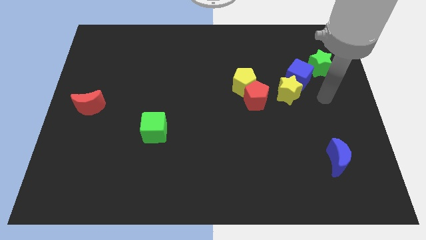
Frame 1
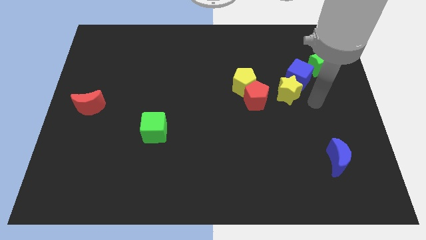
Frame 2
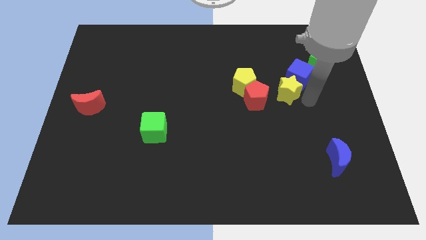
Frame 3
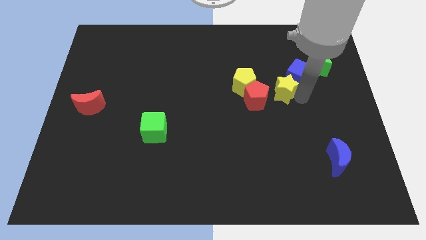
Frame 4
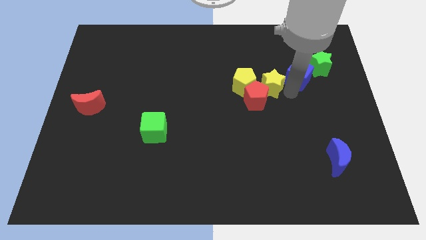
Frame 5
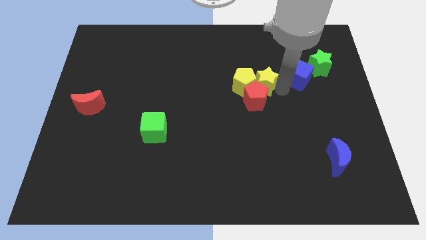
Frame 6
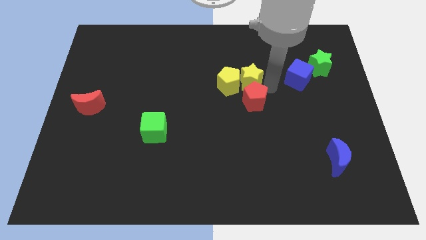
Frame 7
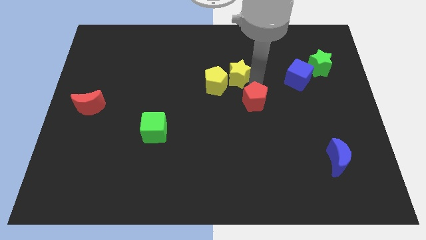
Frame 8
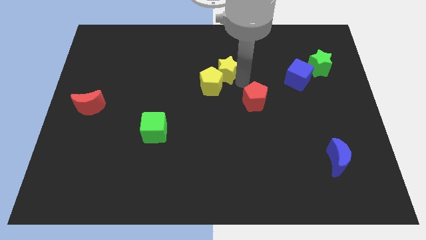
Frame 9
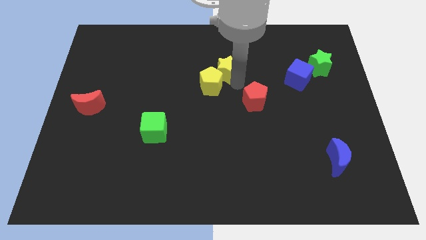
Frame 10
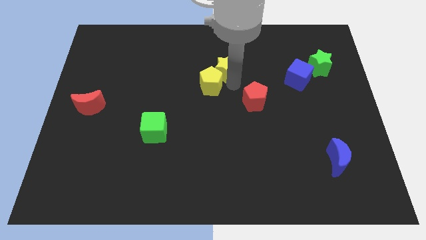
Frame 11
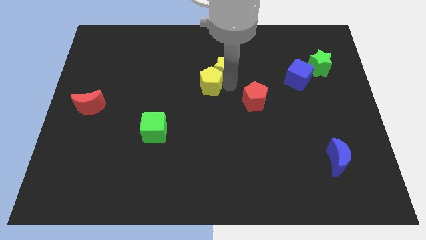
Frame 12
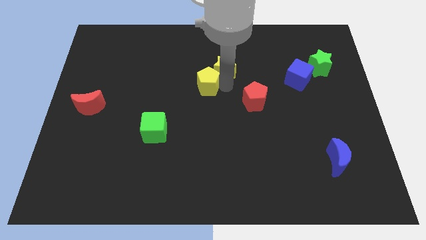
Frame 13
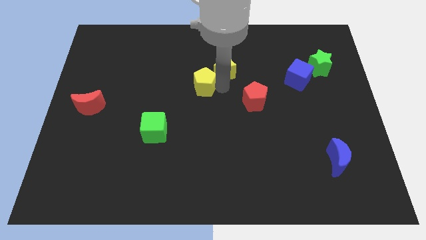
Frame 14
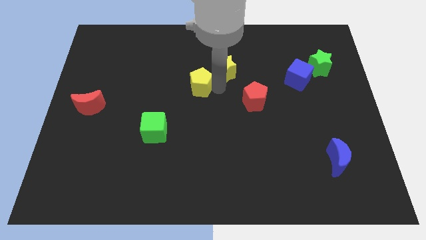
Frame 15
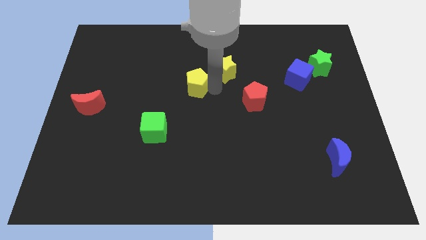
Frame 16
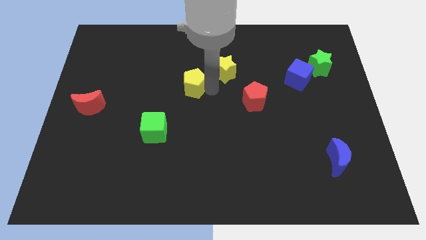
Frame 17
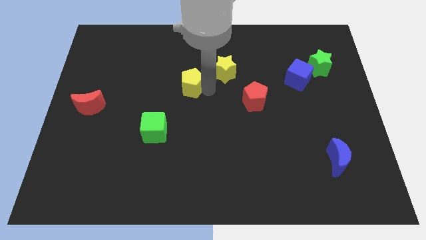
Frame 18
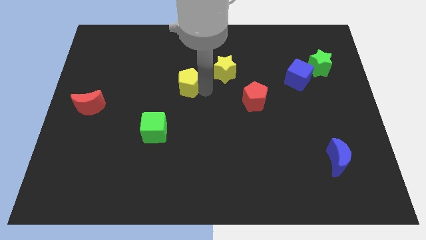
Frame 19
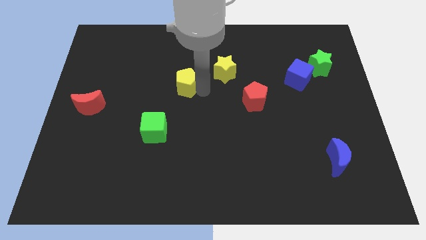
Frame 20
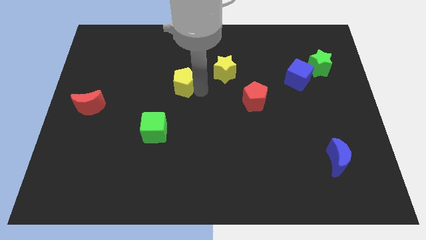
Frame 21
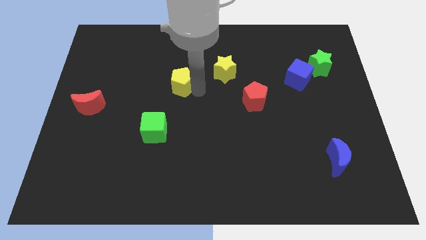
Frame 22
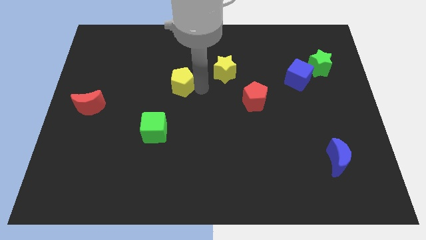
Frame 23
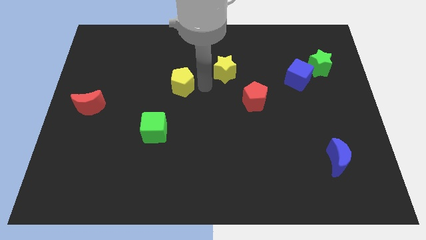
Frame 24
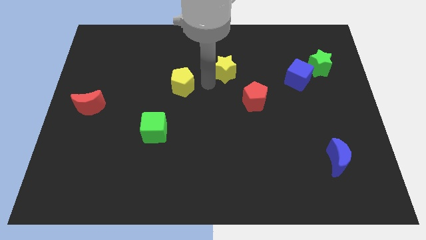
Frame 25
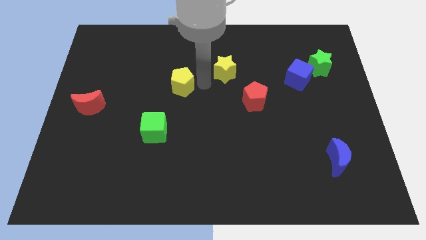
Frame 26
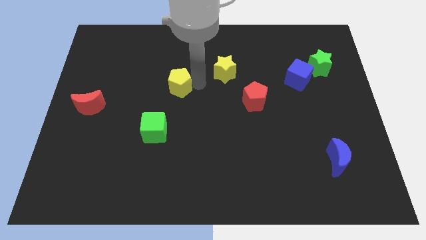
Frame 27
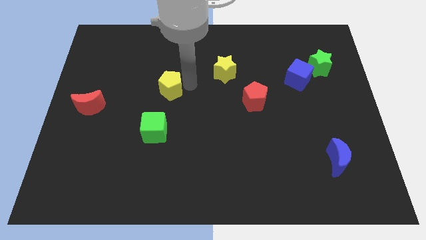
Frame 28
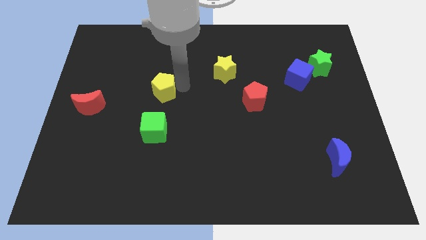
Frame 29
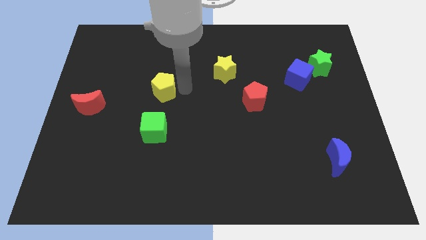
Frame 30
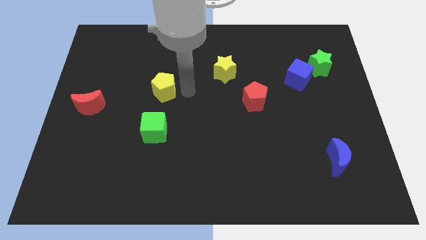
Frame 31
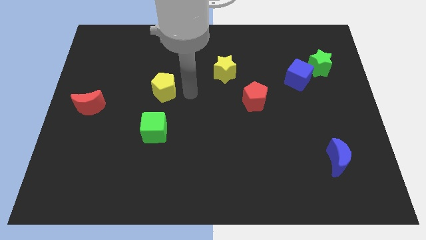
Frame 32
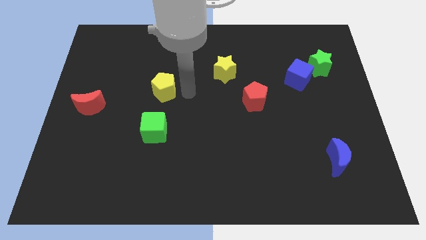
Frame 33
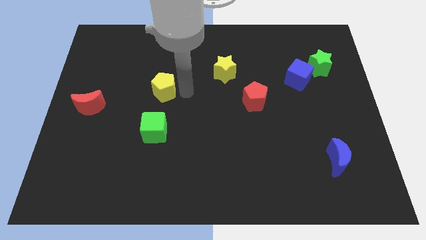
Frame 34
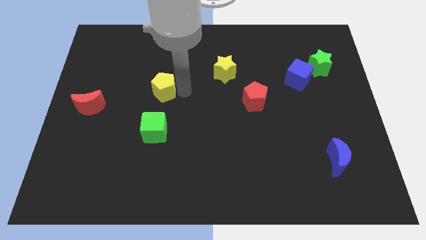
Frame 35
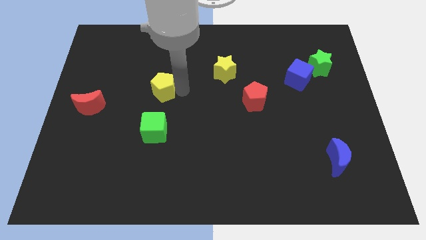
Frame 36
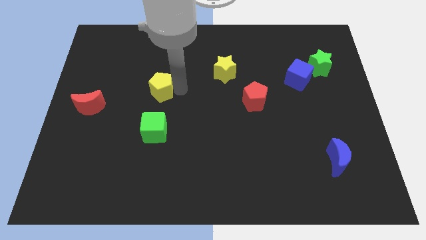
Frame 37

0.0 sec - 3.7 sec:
slide the yellow pentagon left

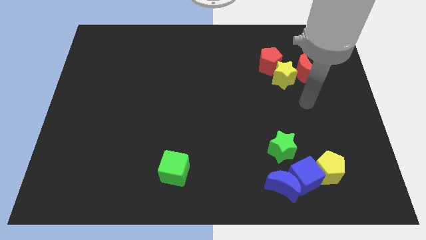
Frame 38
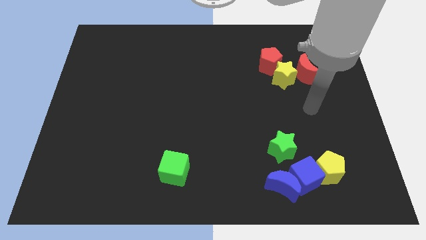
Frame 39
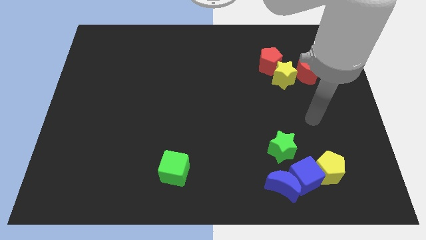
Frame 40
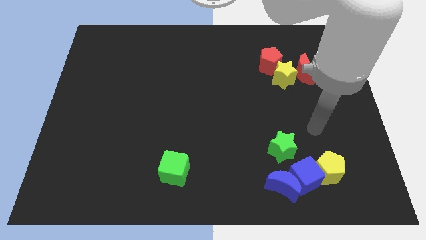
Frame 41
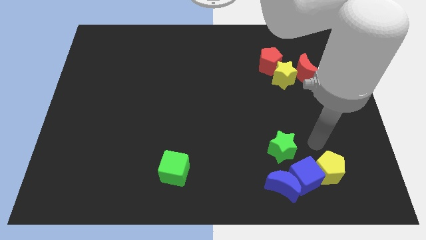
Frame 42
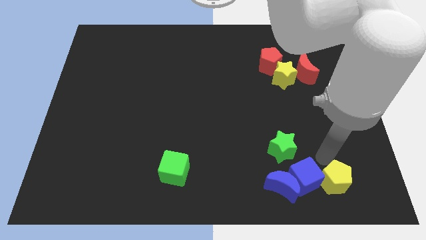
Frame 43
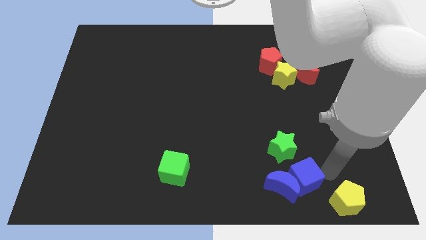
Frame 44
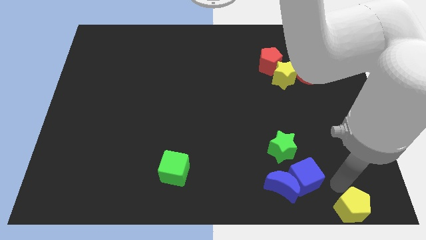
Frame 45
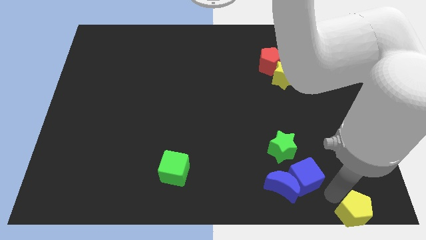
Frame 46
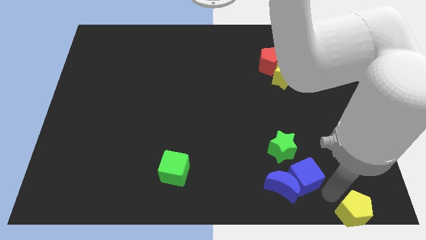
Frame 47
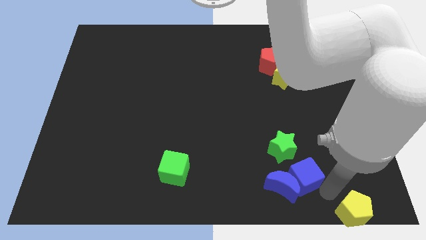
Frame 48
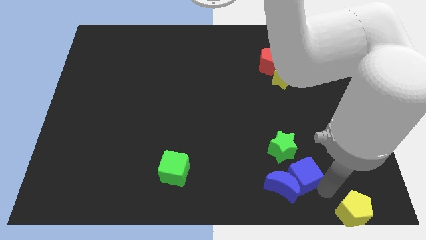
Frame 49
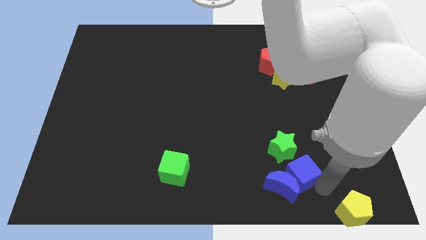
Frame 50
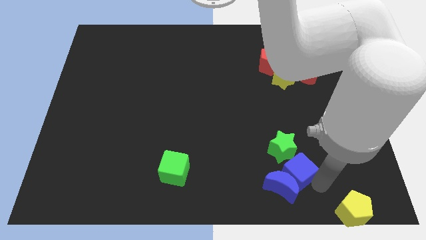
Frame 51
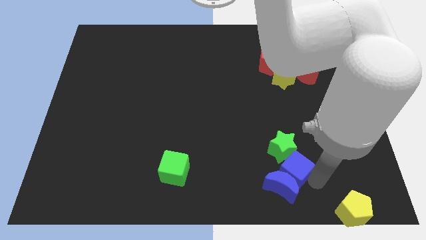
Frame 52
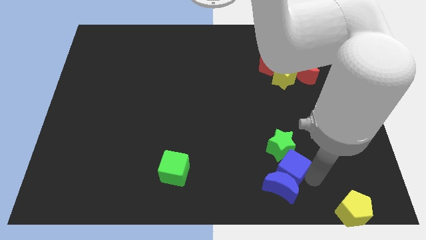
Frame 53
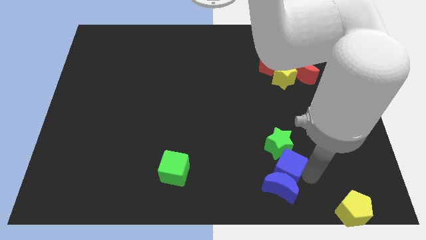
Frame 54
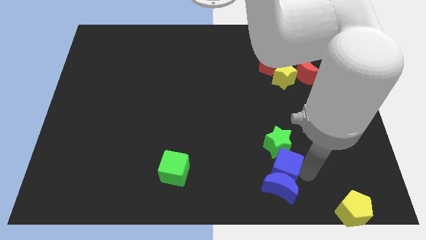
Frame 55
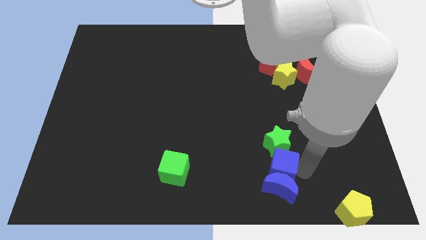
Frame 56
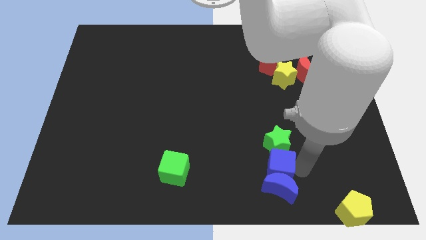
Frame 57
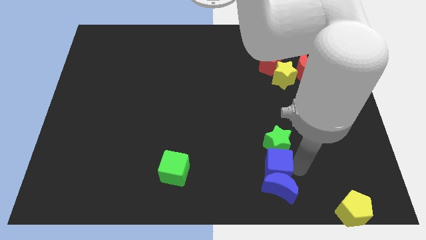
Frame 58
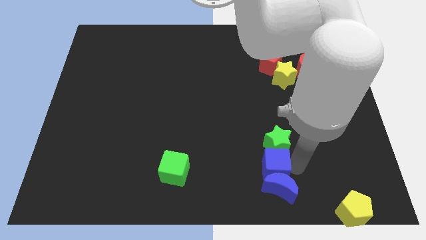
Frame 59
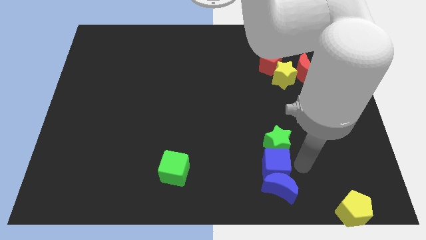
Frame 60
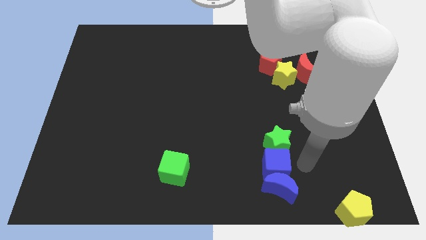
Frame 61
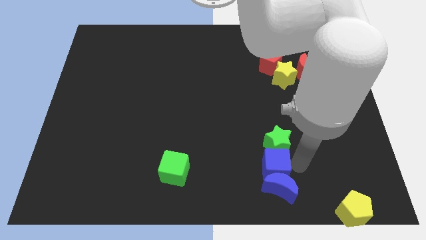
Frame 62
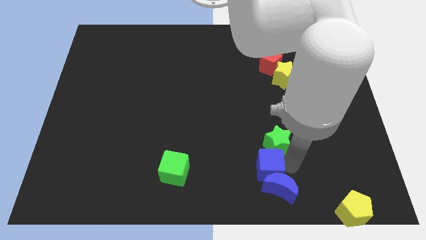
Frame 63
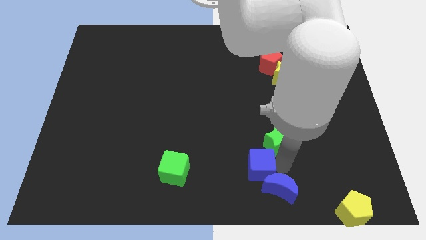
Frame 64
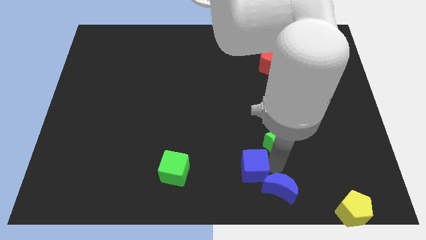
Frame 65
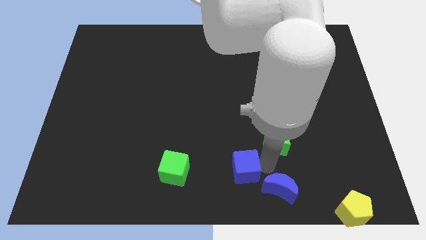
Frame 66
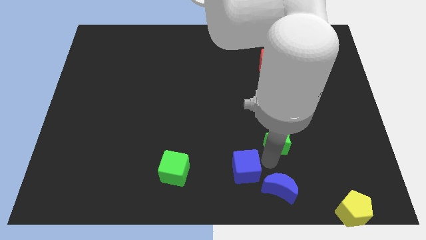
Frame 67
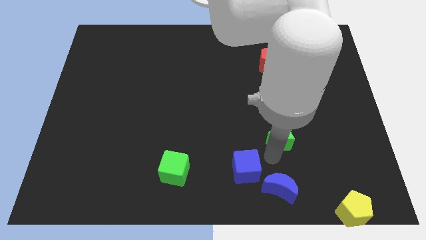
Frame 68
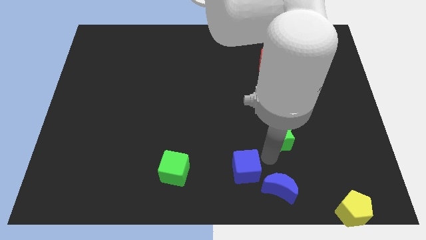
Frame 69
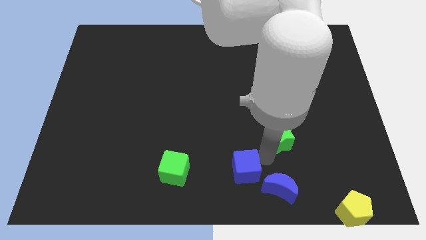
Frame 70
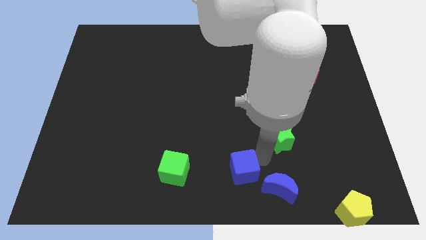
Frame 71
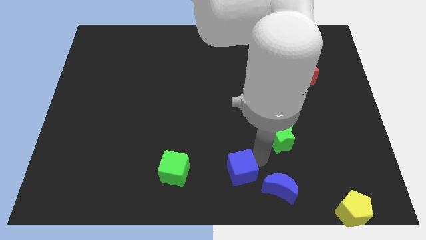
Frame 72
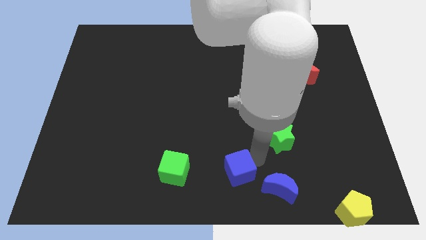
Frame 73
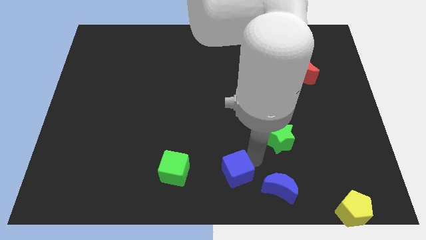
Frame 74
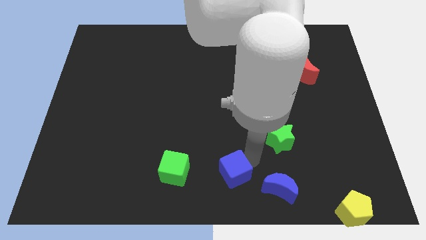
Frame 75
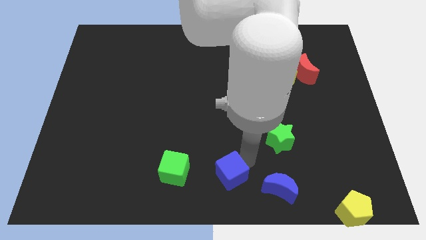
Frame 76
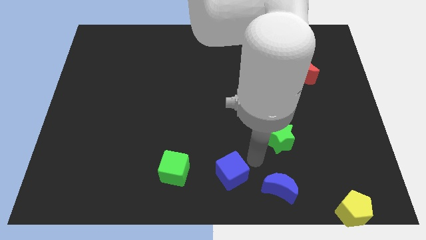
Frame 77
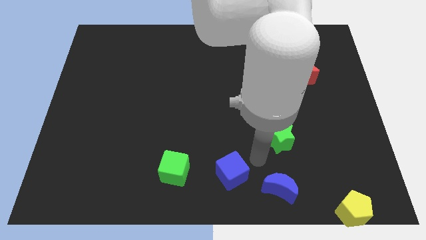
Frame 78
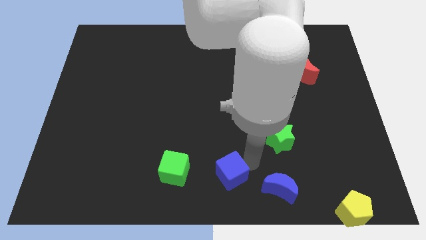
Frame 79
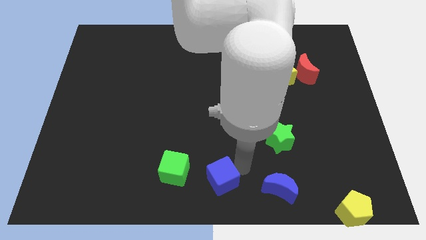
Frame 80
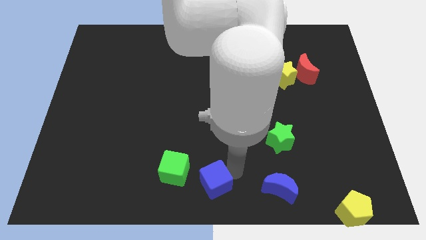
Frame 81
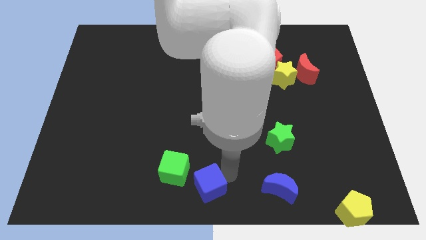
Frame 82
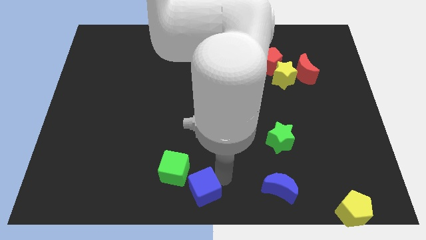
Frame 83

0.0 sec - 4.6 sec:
slide the blue cube left
